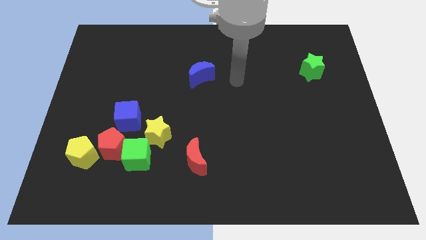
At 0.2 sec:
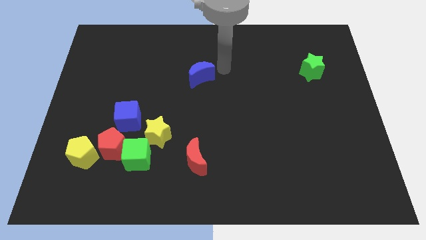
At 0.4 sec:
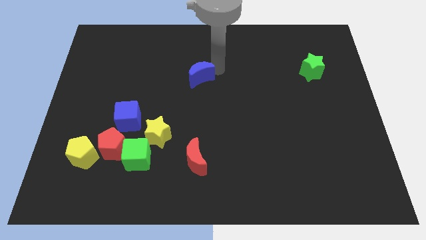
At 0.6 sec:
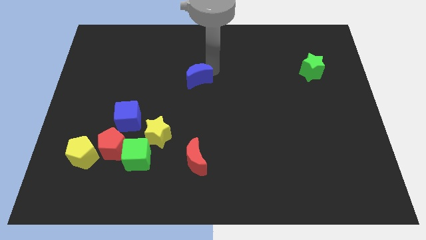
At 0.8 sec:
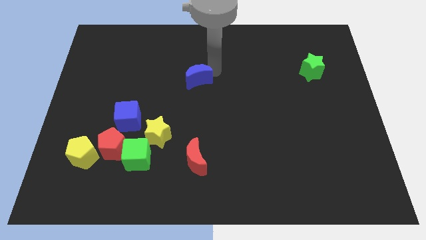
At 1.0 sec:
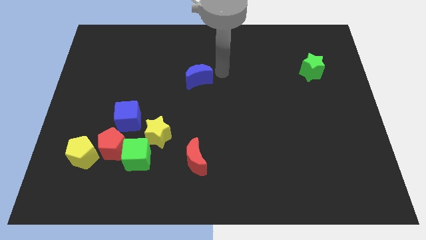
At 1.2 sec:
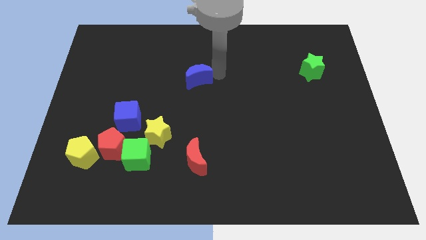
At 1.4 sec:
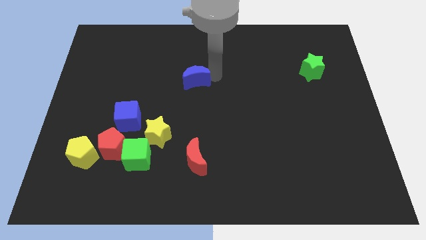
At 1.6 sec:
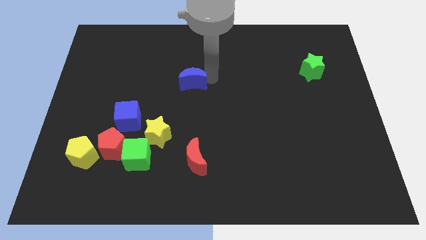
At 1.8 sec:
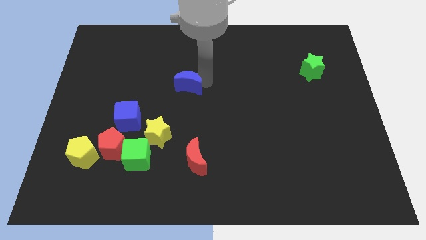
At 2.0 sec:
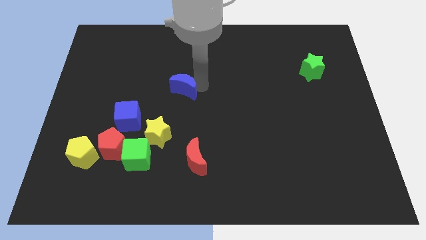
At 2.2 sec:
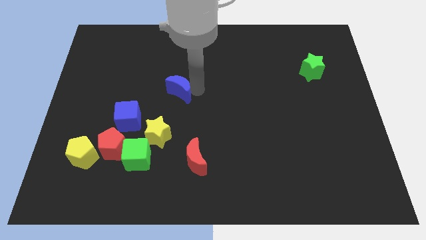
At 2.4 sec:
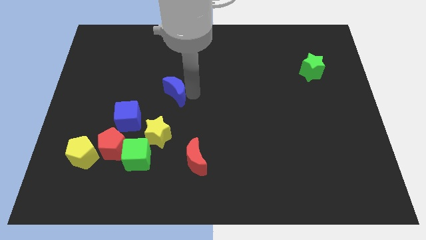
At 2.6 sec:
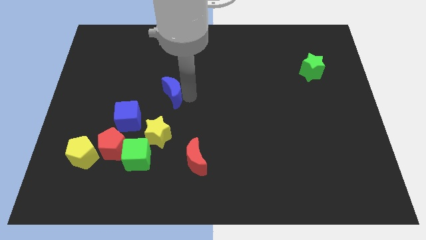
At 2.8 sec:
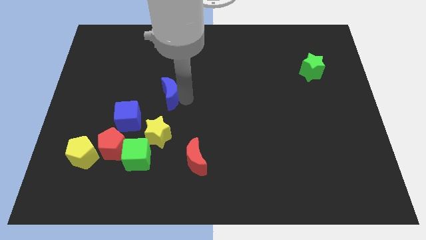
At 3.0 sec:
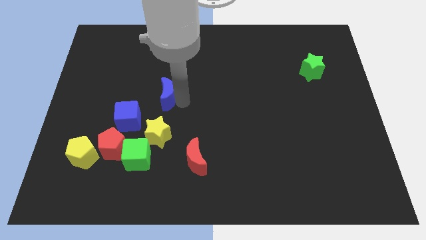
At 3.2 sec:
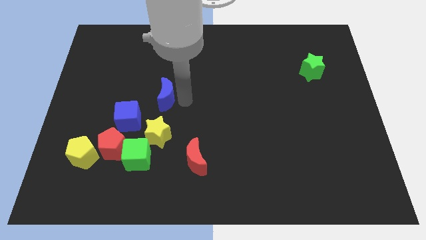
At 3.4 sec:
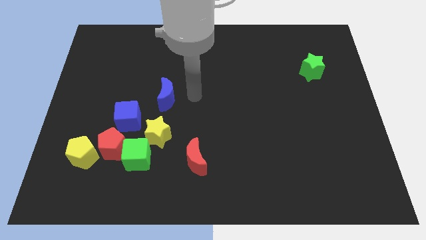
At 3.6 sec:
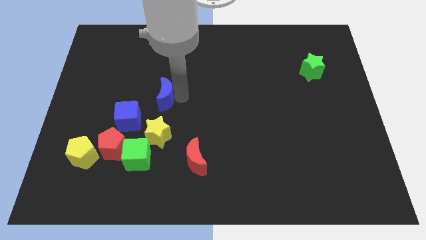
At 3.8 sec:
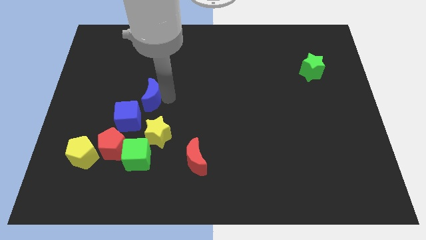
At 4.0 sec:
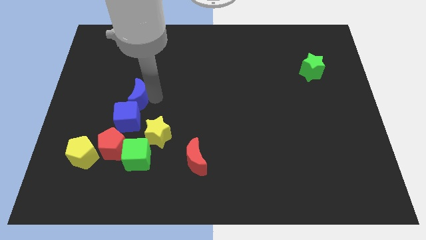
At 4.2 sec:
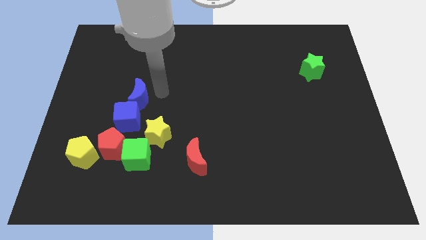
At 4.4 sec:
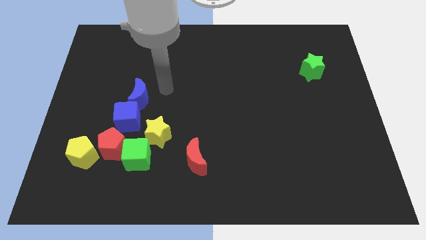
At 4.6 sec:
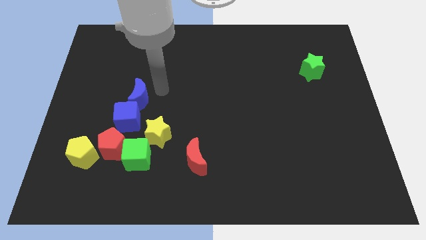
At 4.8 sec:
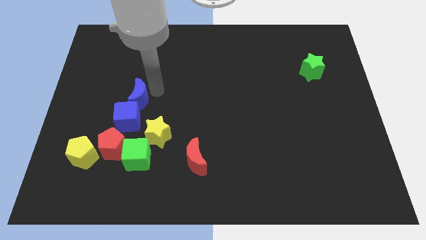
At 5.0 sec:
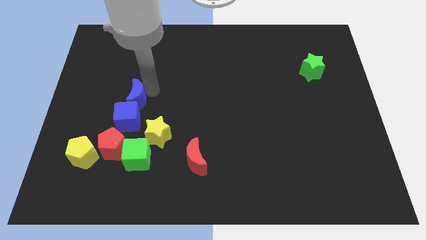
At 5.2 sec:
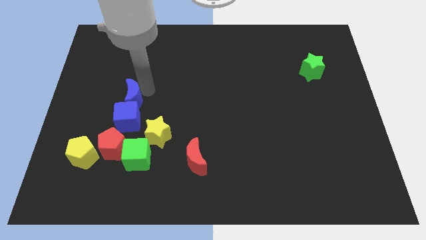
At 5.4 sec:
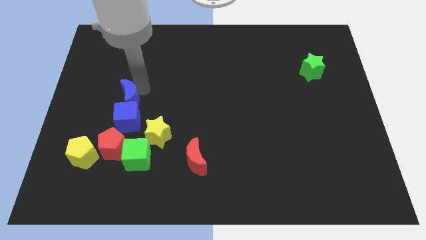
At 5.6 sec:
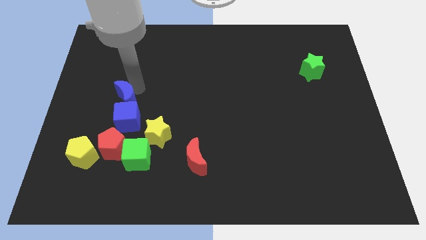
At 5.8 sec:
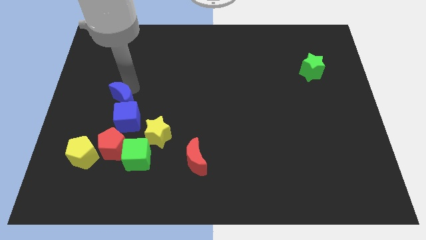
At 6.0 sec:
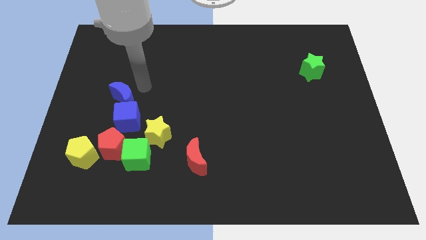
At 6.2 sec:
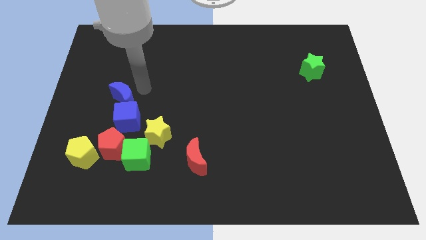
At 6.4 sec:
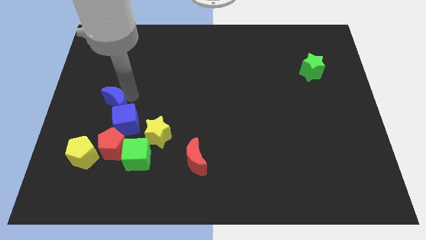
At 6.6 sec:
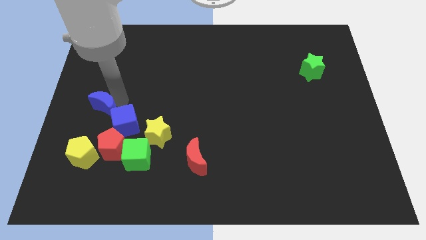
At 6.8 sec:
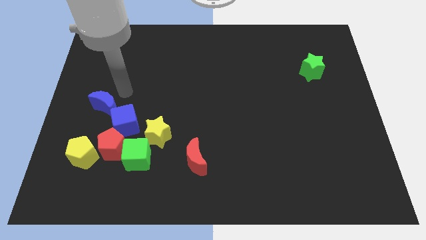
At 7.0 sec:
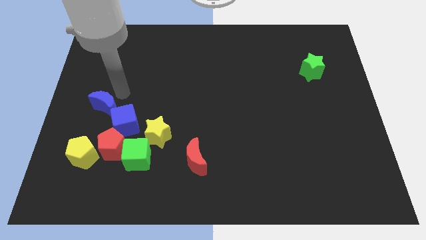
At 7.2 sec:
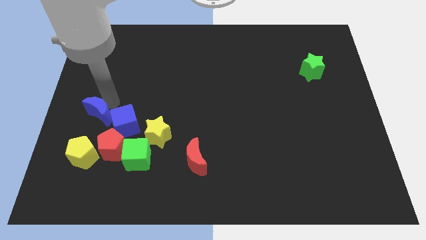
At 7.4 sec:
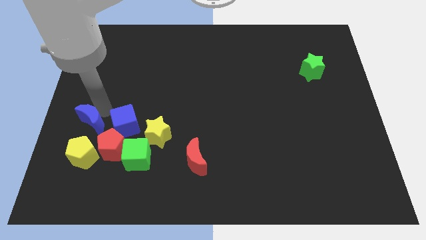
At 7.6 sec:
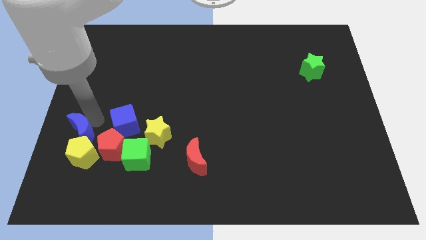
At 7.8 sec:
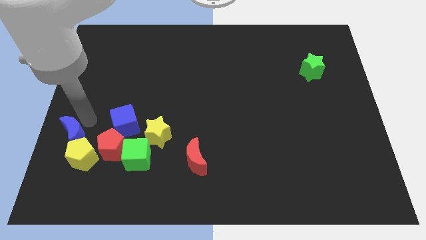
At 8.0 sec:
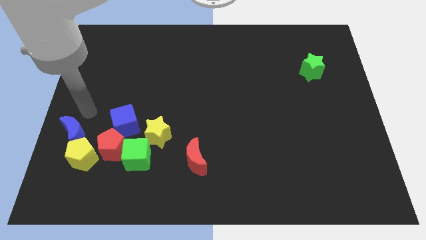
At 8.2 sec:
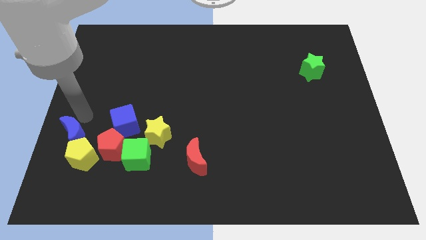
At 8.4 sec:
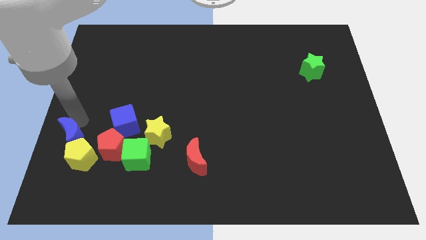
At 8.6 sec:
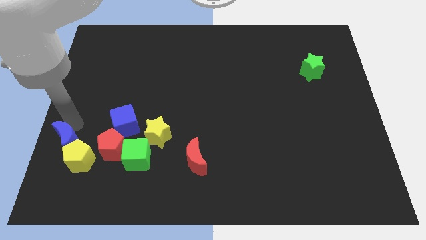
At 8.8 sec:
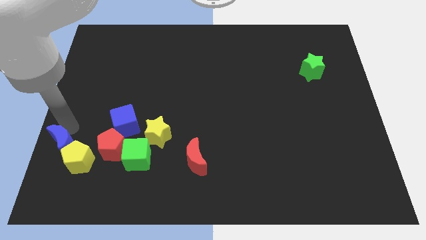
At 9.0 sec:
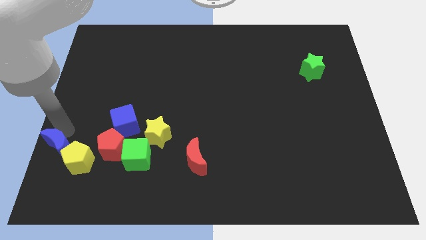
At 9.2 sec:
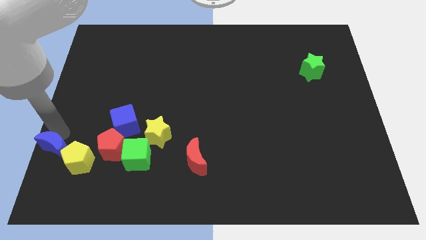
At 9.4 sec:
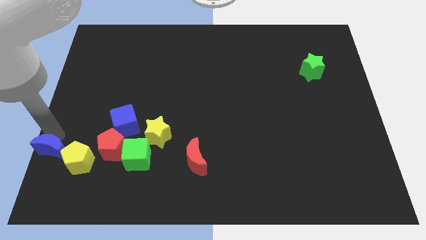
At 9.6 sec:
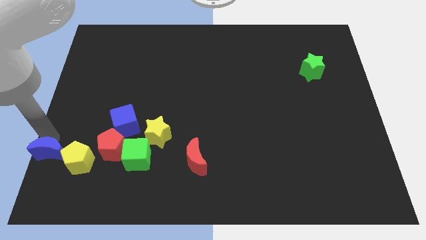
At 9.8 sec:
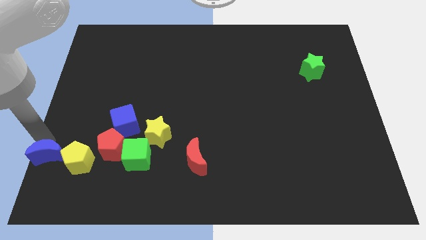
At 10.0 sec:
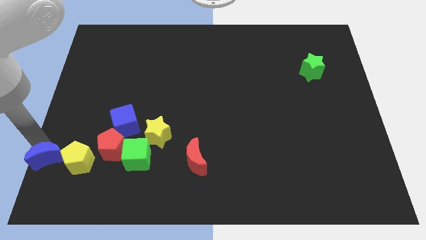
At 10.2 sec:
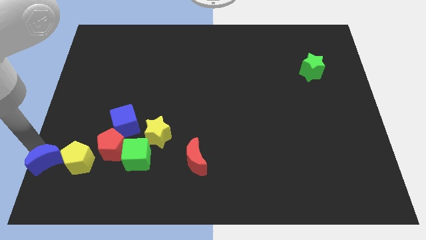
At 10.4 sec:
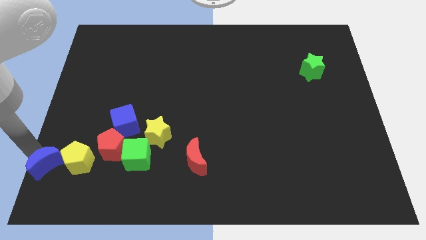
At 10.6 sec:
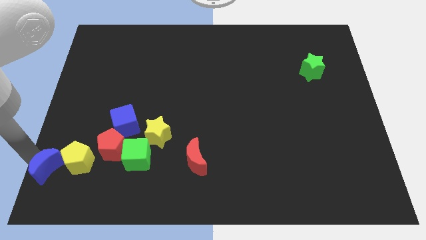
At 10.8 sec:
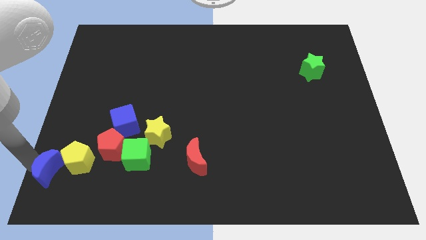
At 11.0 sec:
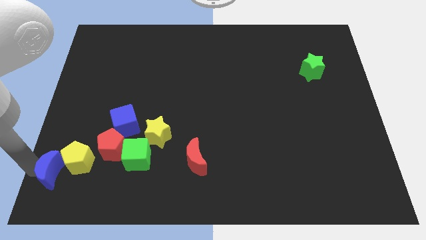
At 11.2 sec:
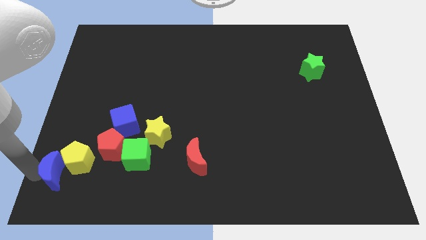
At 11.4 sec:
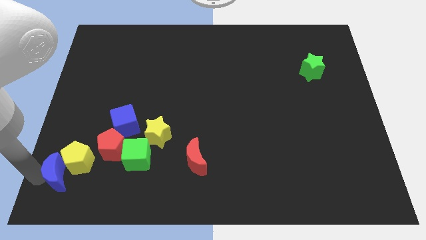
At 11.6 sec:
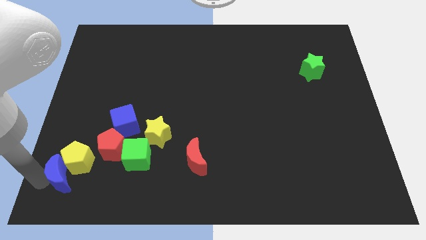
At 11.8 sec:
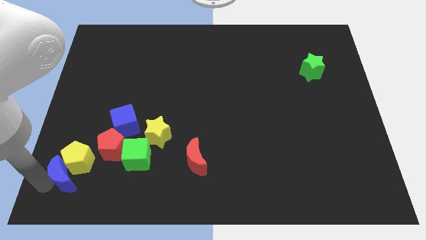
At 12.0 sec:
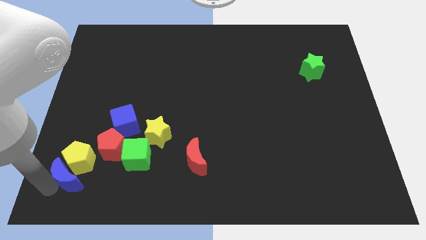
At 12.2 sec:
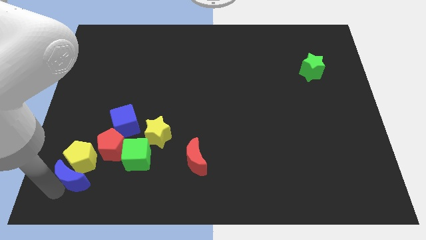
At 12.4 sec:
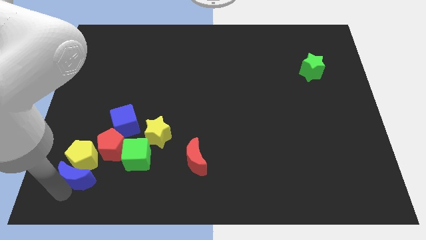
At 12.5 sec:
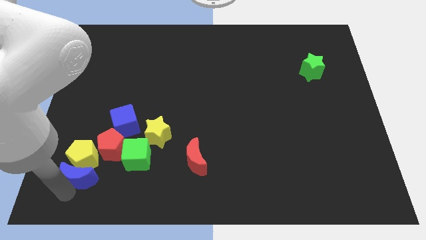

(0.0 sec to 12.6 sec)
put the blue moon left of the green cube

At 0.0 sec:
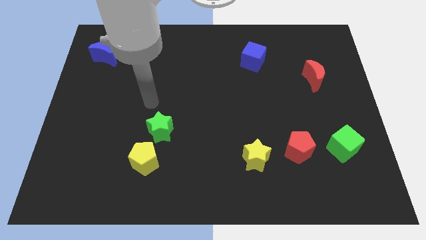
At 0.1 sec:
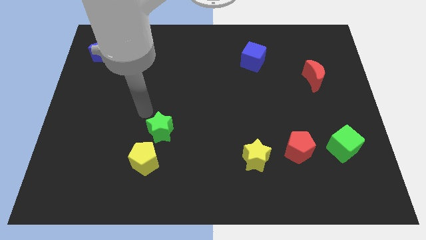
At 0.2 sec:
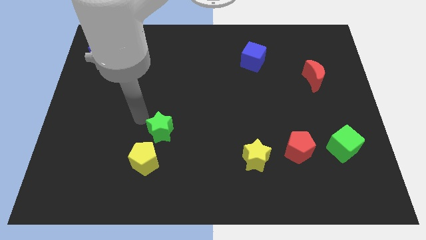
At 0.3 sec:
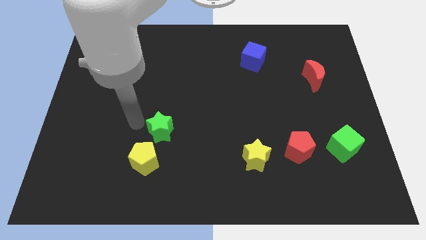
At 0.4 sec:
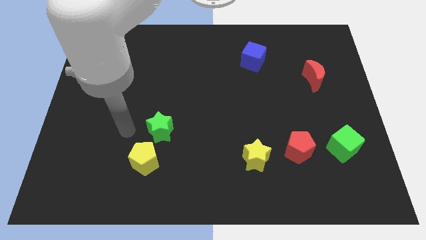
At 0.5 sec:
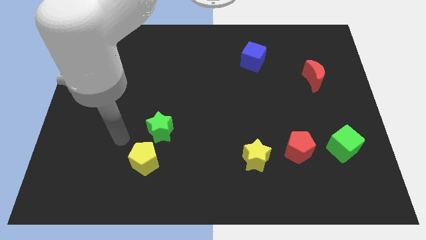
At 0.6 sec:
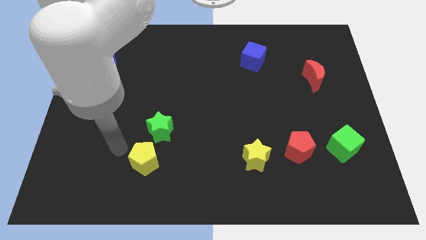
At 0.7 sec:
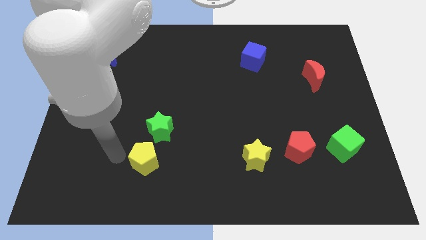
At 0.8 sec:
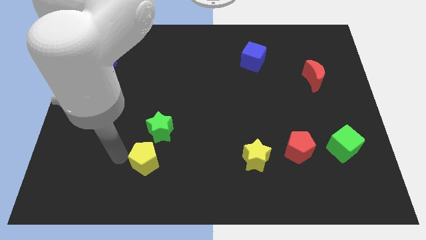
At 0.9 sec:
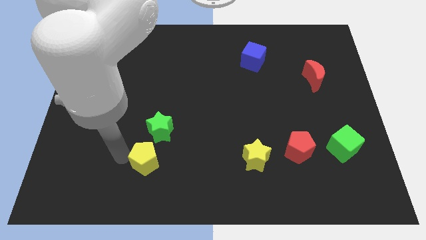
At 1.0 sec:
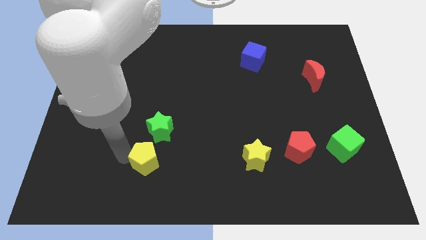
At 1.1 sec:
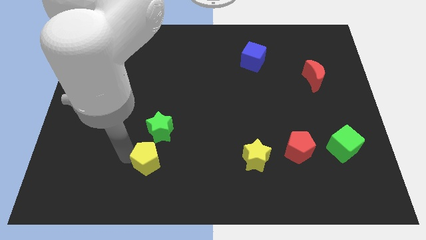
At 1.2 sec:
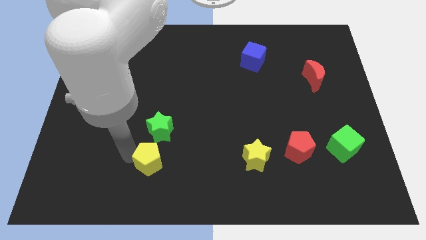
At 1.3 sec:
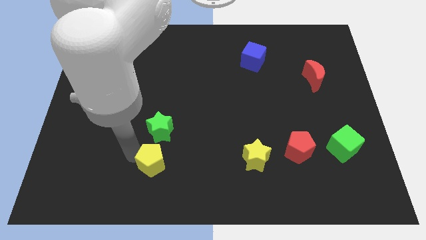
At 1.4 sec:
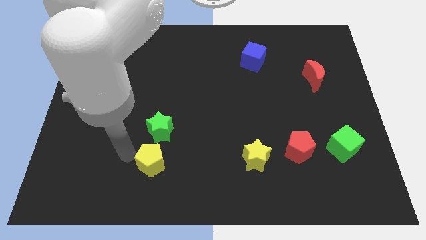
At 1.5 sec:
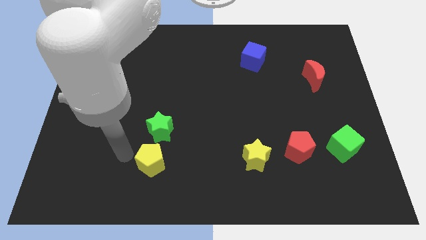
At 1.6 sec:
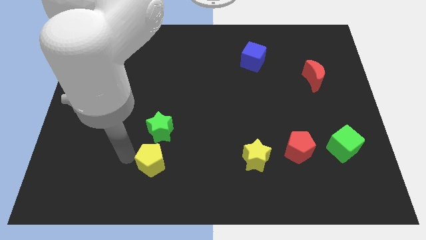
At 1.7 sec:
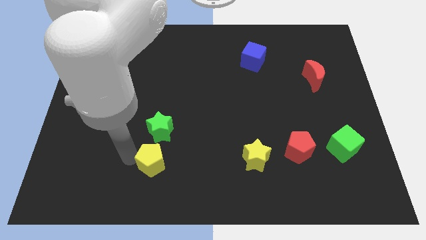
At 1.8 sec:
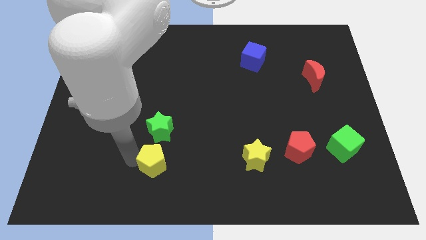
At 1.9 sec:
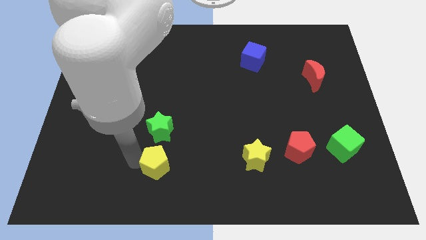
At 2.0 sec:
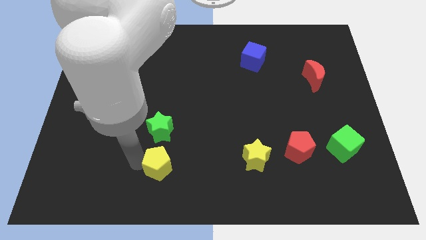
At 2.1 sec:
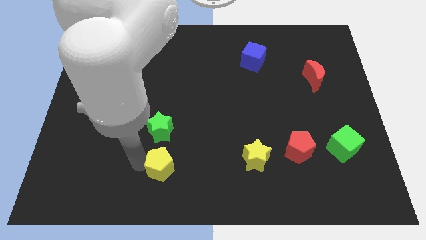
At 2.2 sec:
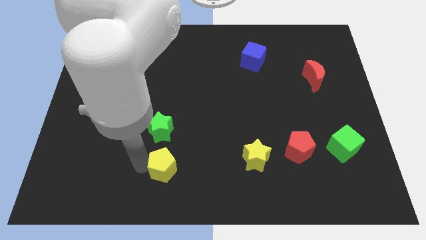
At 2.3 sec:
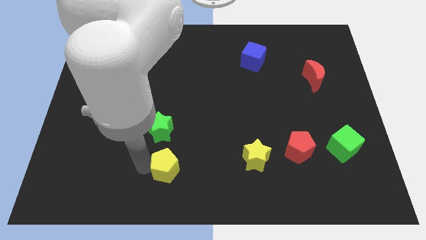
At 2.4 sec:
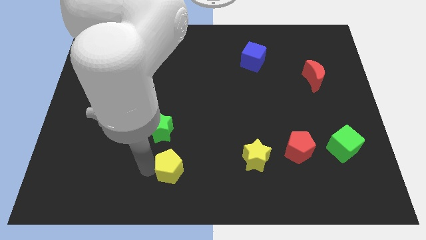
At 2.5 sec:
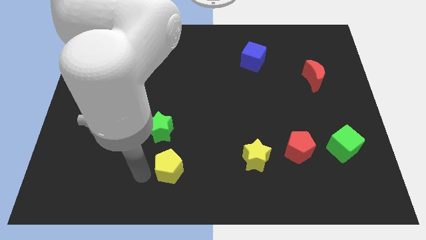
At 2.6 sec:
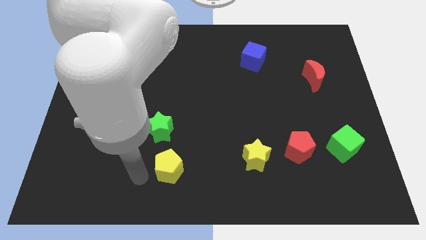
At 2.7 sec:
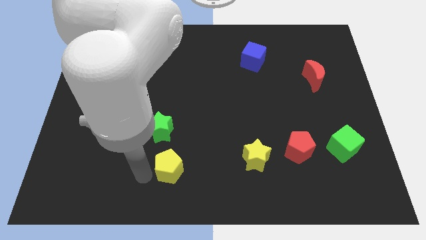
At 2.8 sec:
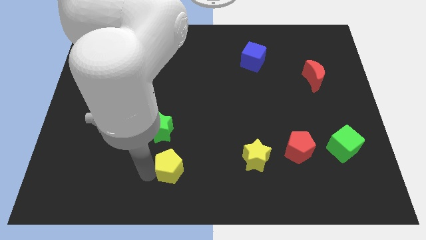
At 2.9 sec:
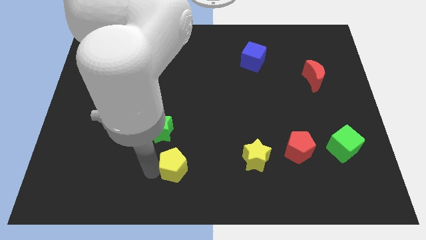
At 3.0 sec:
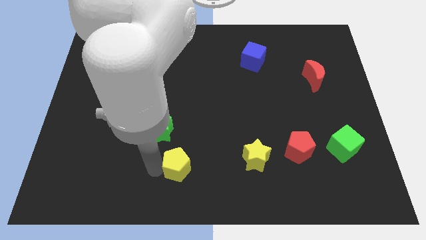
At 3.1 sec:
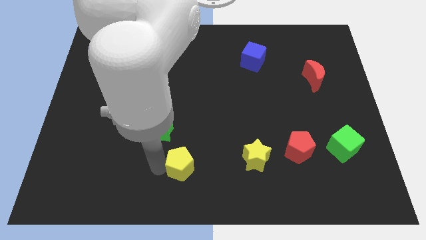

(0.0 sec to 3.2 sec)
move the yellow pentagon just left of the yellow star
